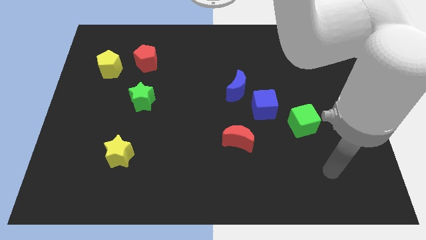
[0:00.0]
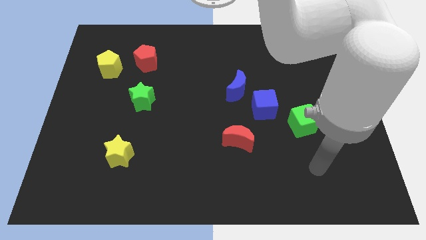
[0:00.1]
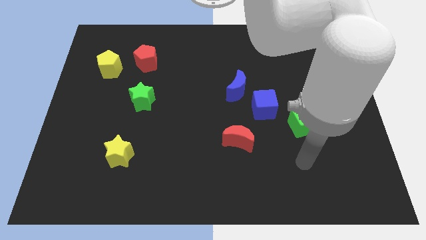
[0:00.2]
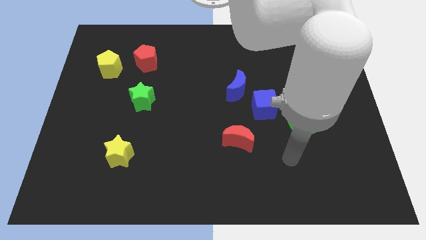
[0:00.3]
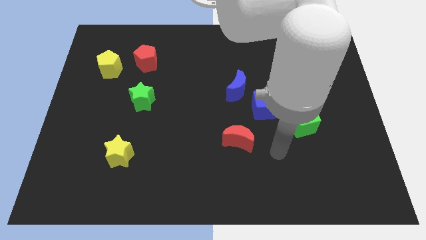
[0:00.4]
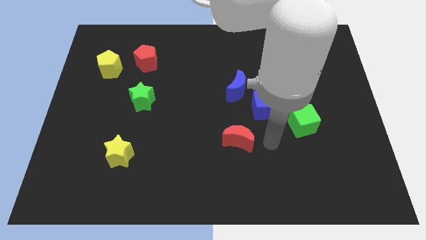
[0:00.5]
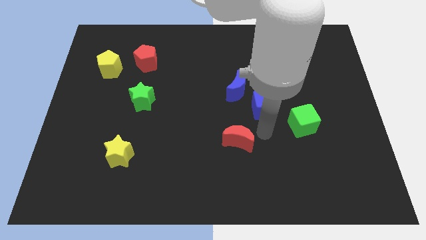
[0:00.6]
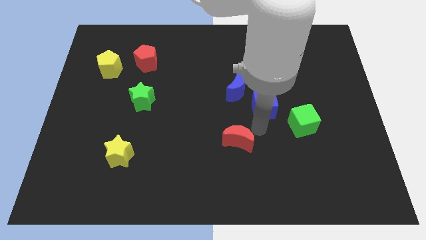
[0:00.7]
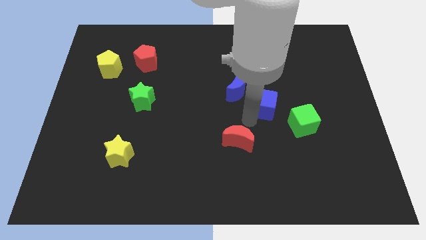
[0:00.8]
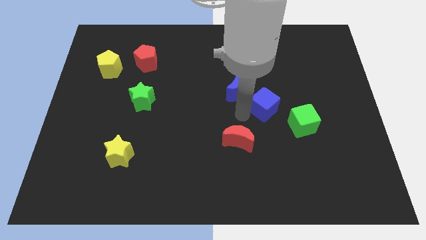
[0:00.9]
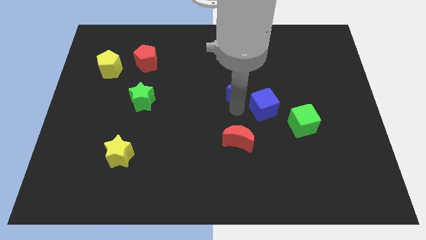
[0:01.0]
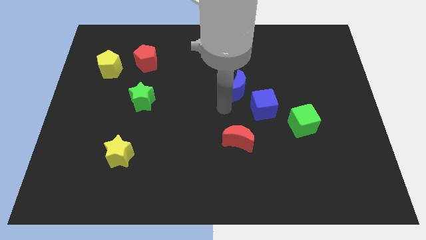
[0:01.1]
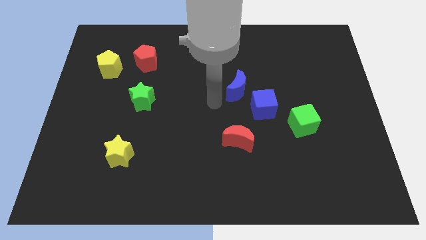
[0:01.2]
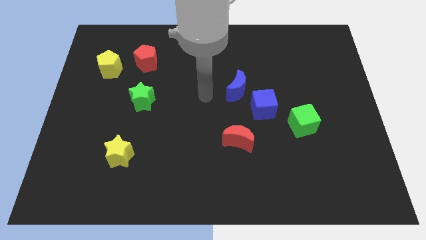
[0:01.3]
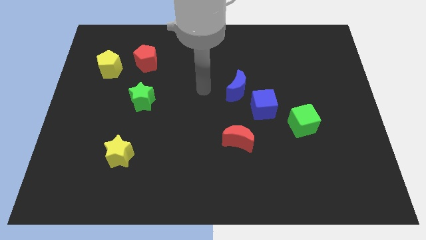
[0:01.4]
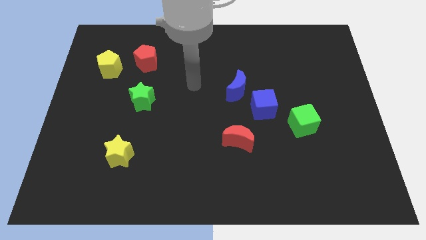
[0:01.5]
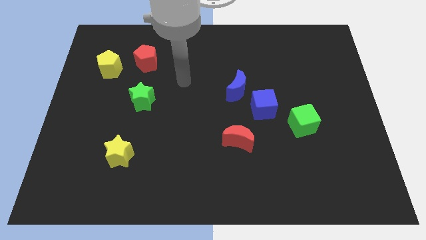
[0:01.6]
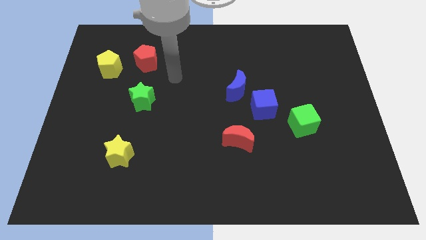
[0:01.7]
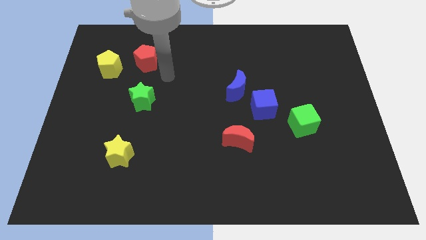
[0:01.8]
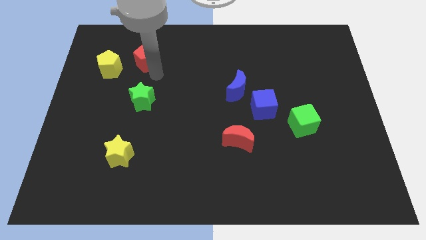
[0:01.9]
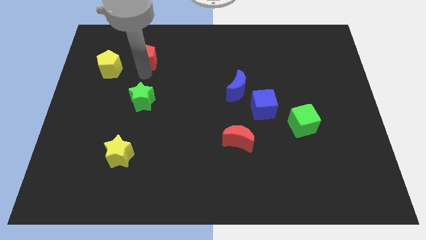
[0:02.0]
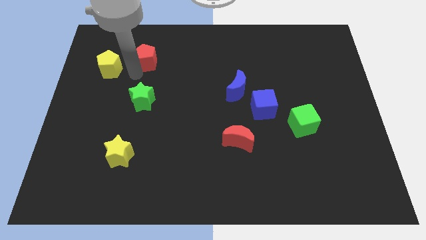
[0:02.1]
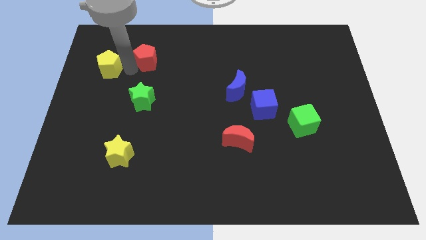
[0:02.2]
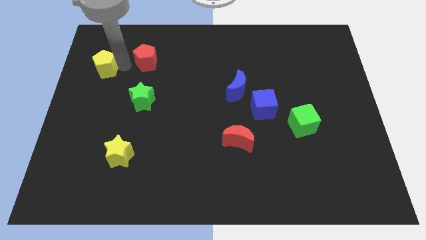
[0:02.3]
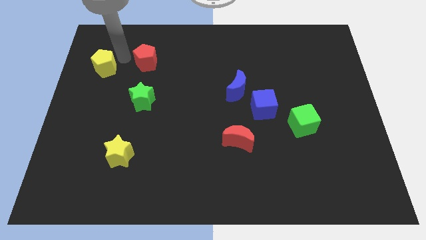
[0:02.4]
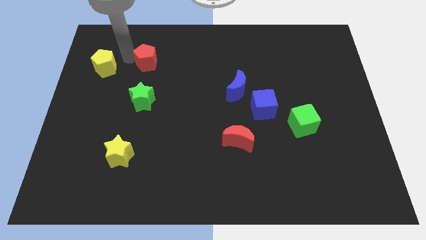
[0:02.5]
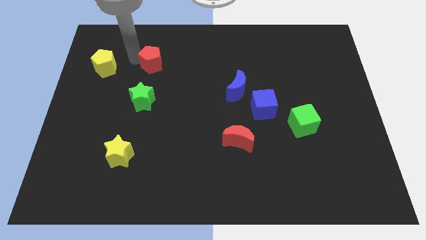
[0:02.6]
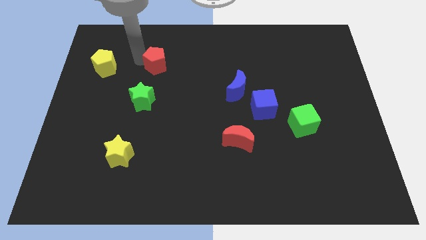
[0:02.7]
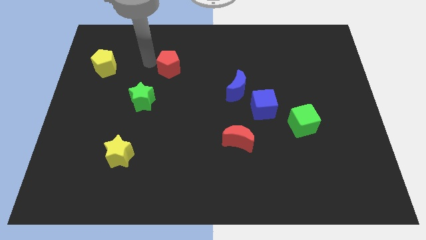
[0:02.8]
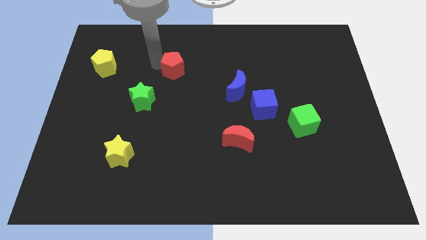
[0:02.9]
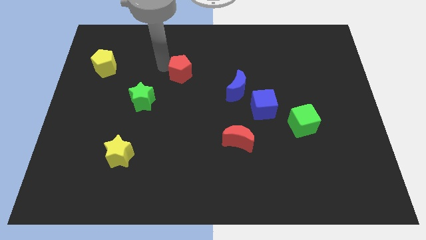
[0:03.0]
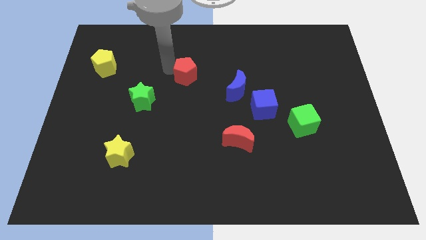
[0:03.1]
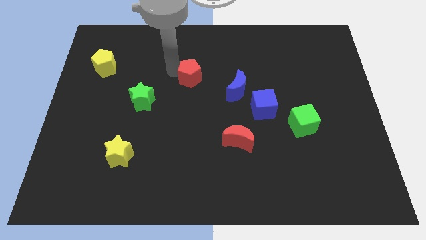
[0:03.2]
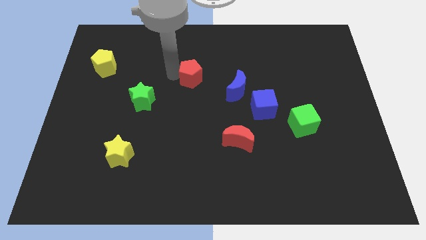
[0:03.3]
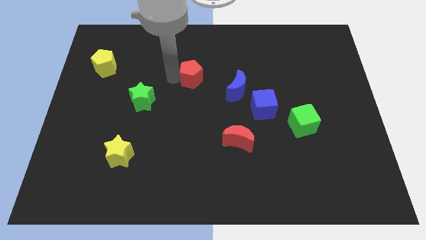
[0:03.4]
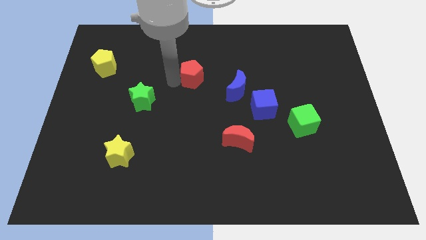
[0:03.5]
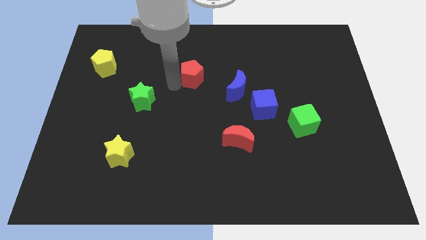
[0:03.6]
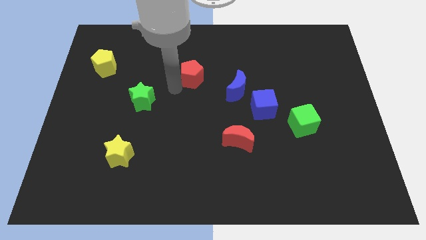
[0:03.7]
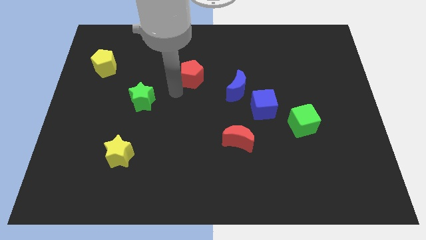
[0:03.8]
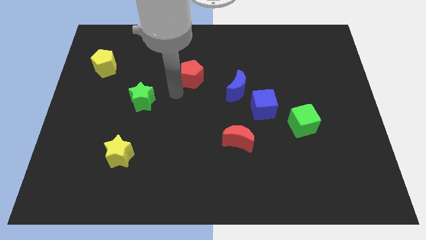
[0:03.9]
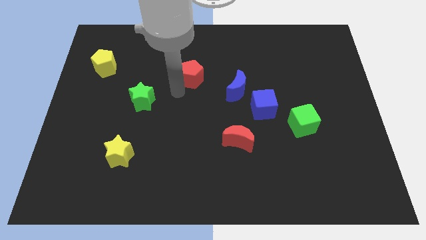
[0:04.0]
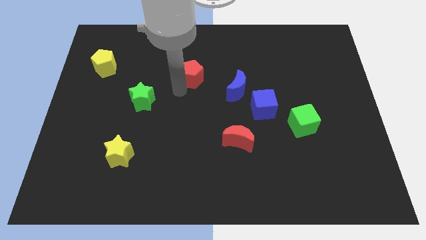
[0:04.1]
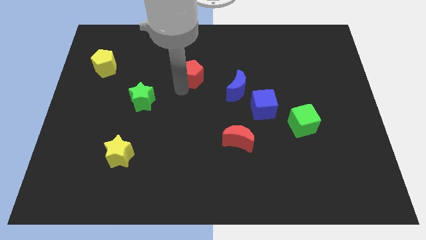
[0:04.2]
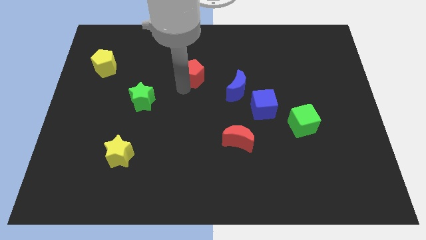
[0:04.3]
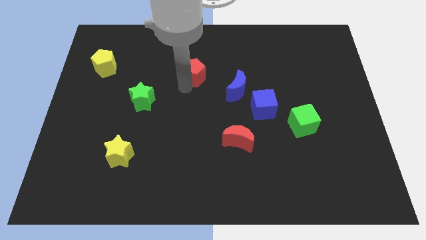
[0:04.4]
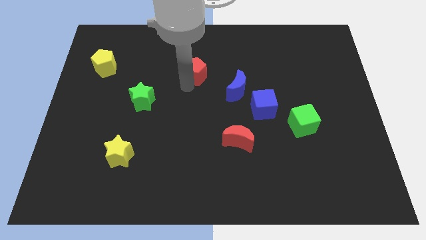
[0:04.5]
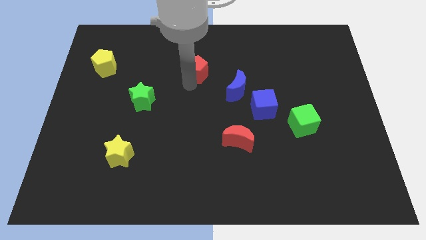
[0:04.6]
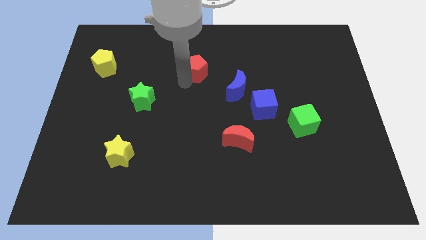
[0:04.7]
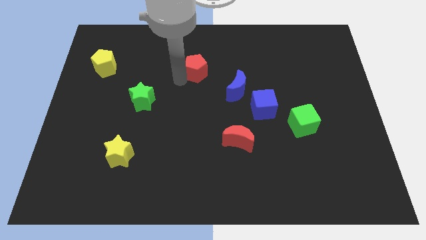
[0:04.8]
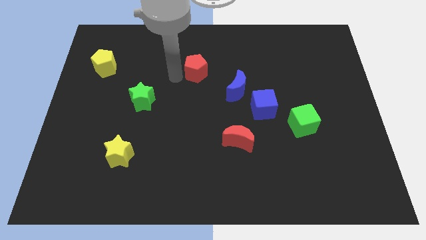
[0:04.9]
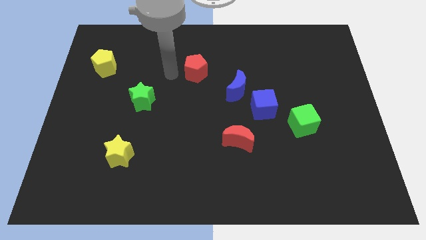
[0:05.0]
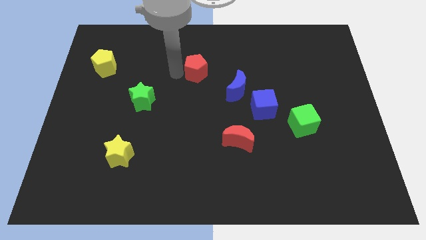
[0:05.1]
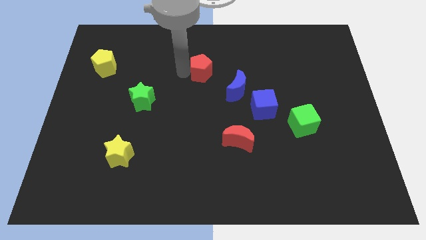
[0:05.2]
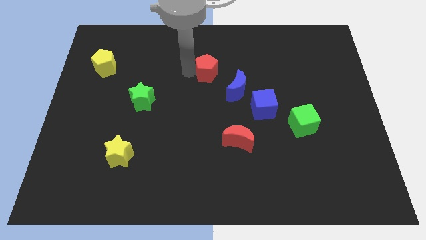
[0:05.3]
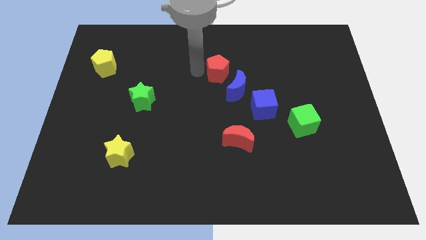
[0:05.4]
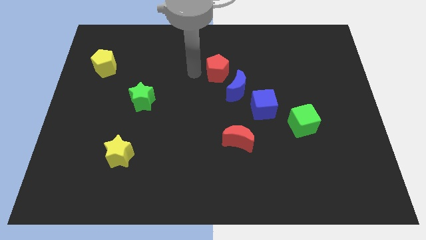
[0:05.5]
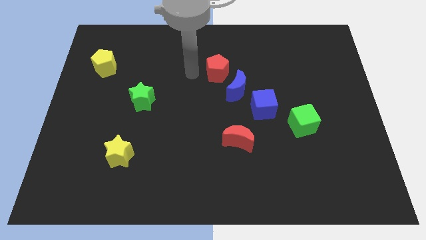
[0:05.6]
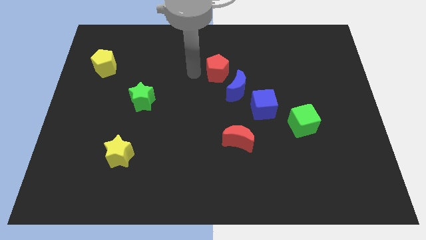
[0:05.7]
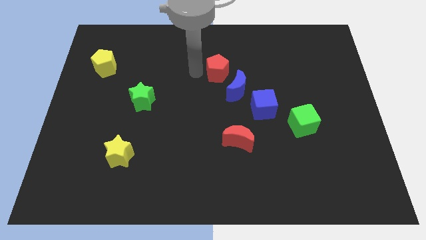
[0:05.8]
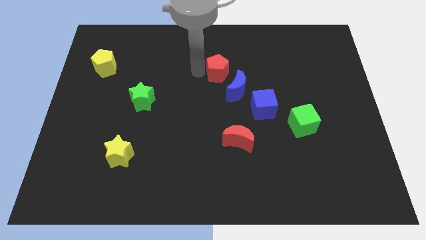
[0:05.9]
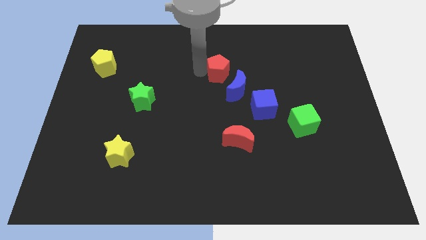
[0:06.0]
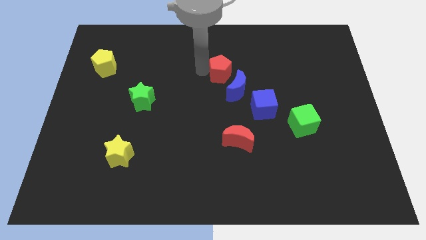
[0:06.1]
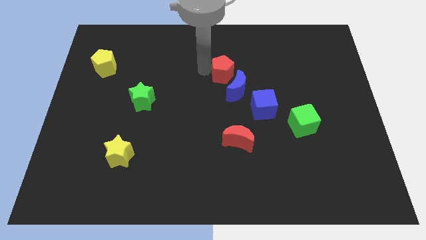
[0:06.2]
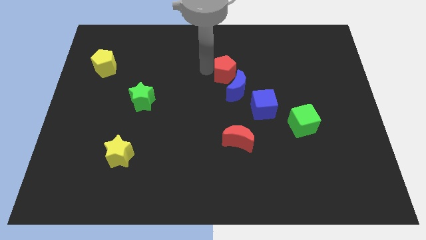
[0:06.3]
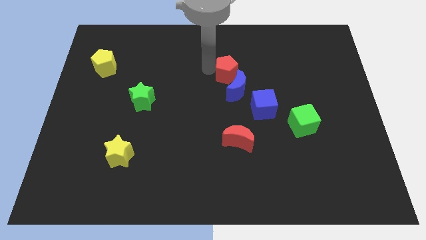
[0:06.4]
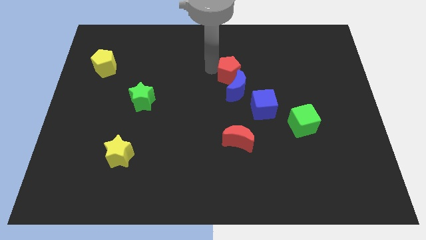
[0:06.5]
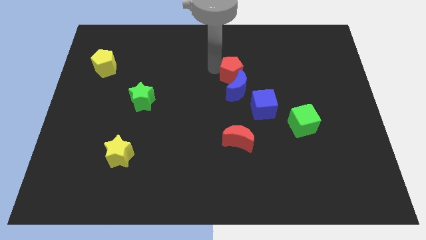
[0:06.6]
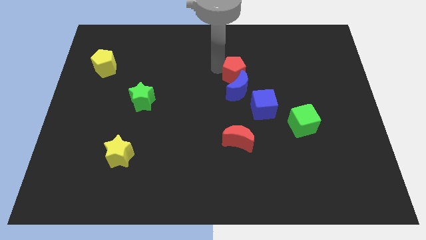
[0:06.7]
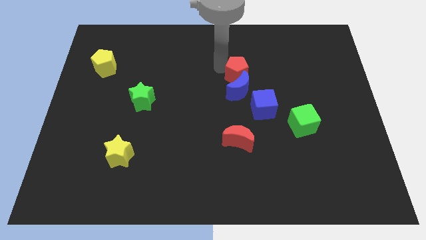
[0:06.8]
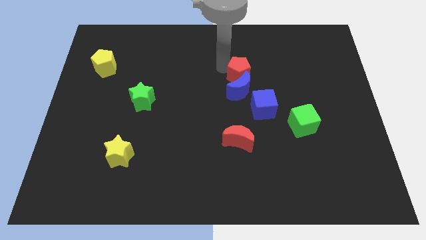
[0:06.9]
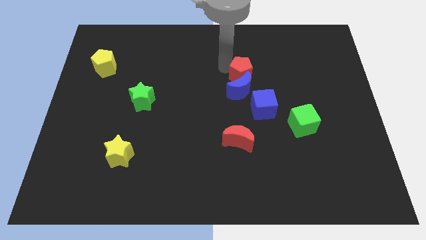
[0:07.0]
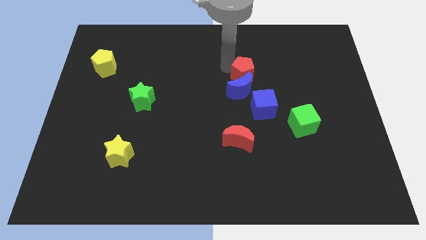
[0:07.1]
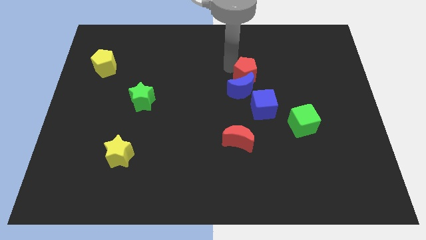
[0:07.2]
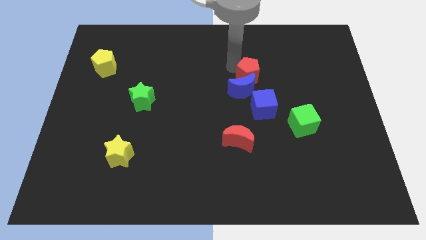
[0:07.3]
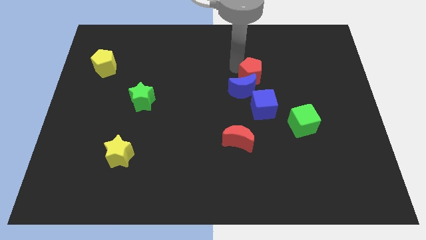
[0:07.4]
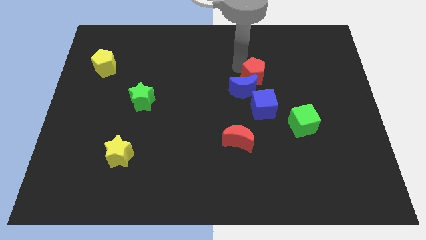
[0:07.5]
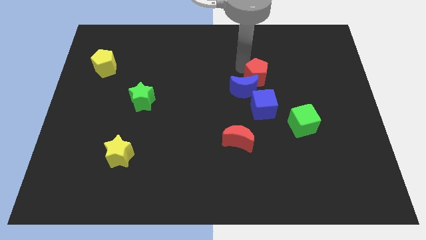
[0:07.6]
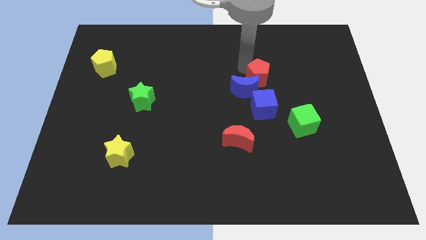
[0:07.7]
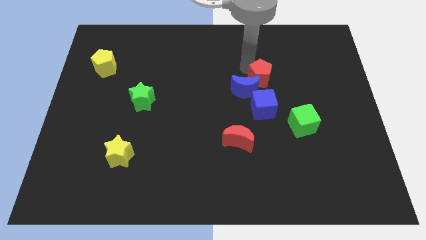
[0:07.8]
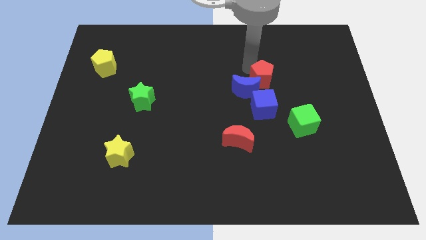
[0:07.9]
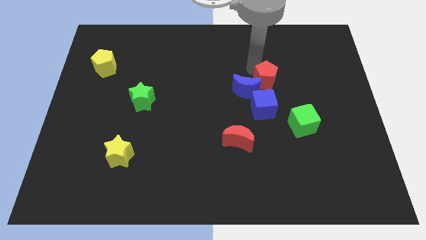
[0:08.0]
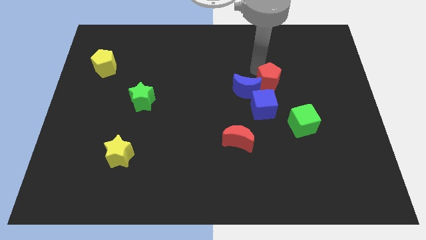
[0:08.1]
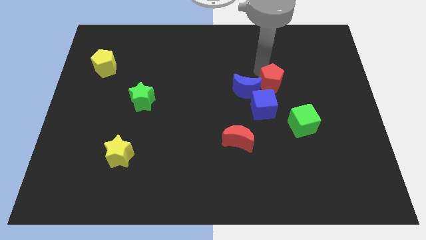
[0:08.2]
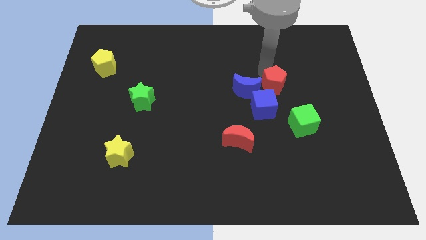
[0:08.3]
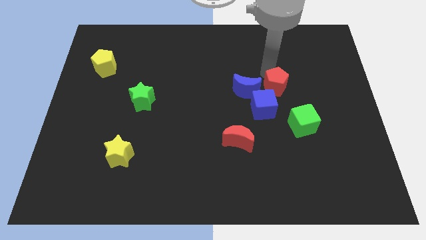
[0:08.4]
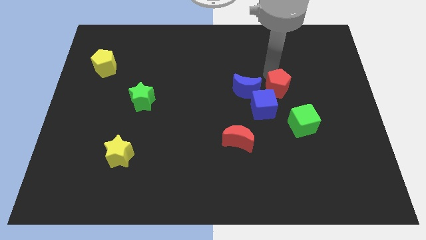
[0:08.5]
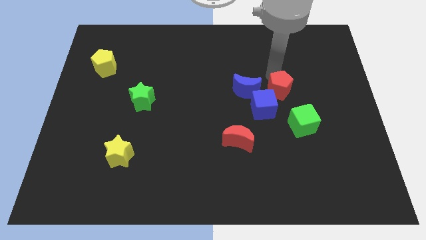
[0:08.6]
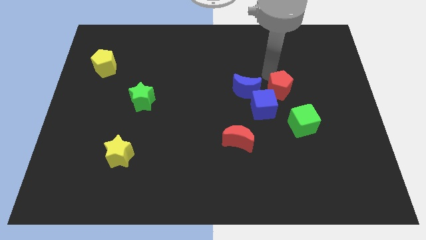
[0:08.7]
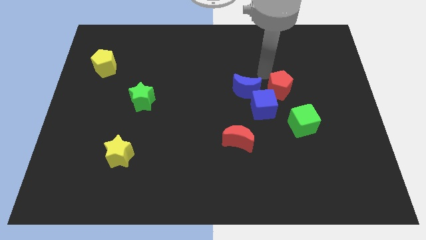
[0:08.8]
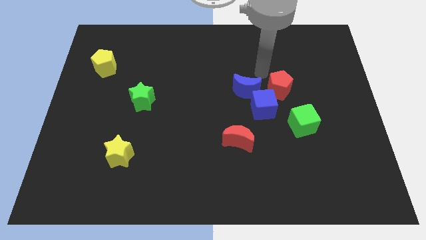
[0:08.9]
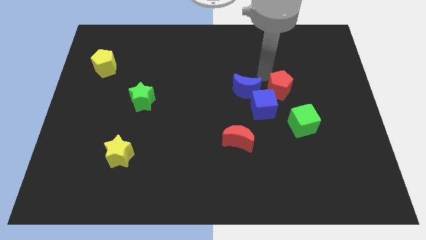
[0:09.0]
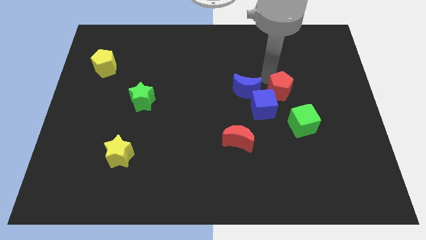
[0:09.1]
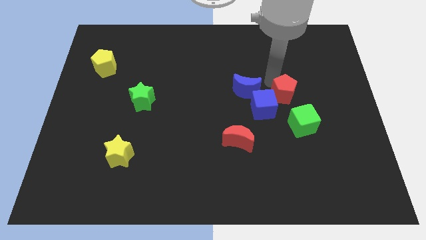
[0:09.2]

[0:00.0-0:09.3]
push the red pentagon just right of the blue cube
